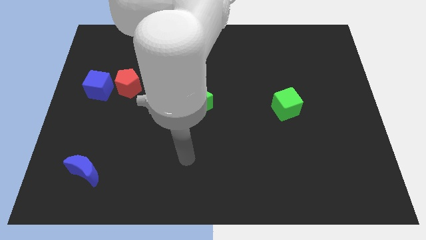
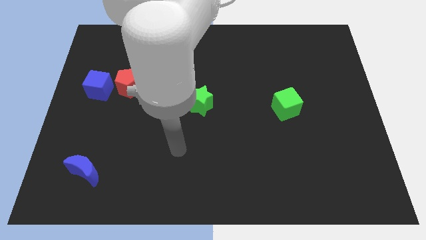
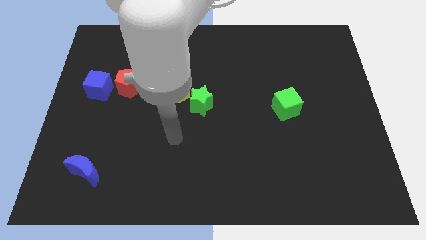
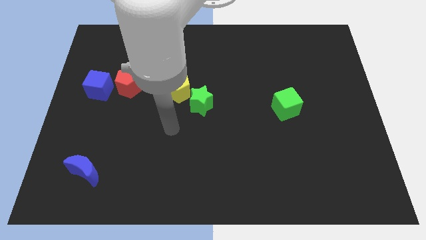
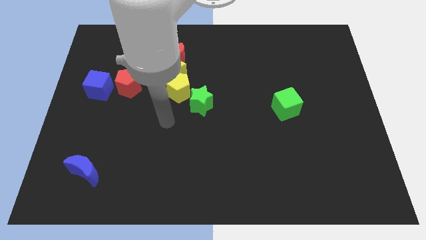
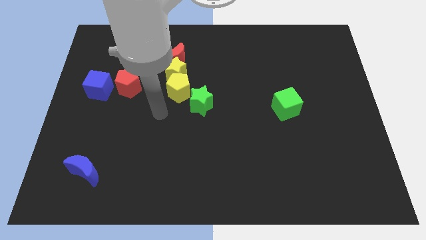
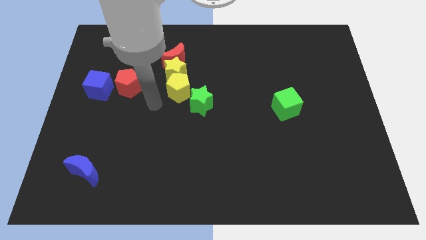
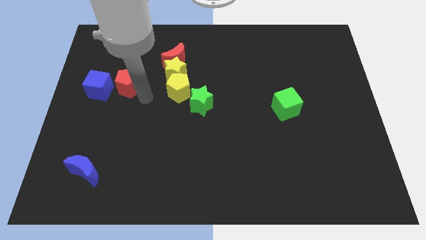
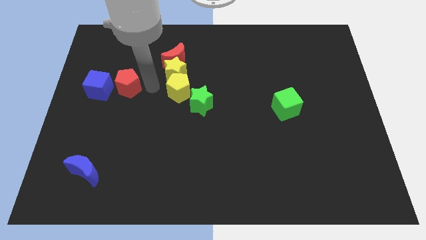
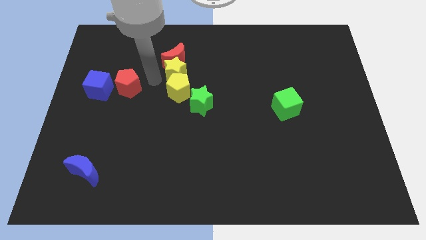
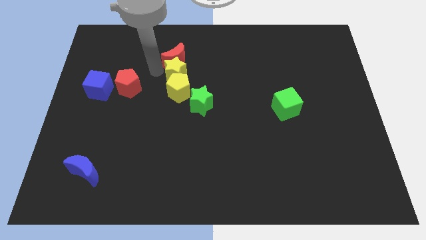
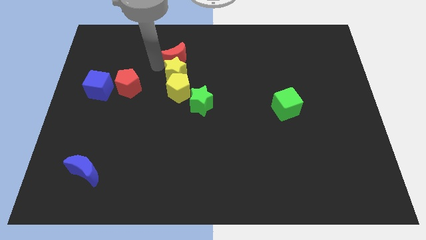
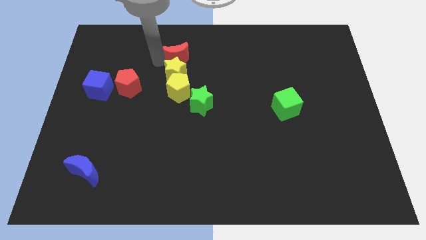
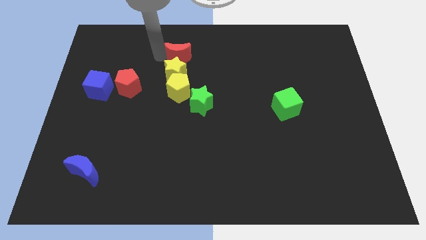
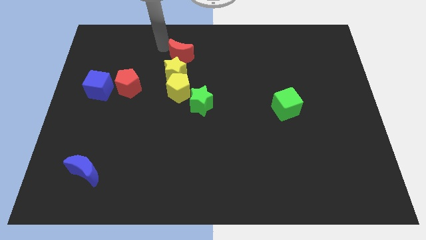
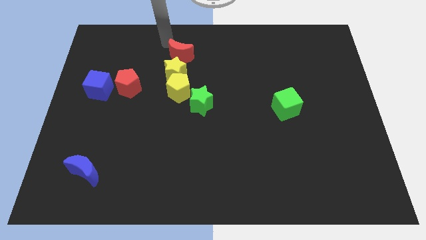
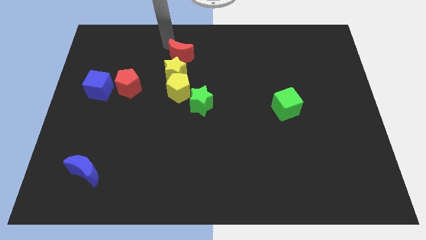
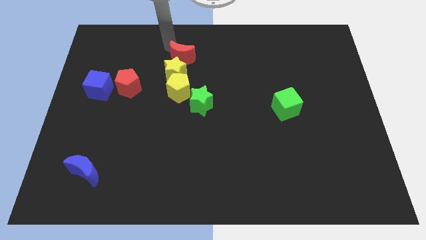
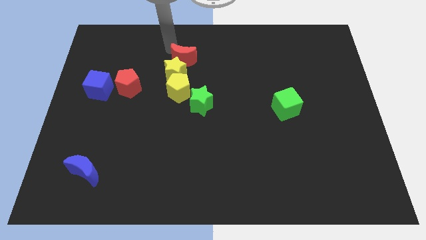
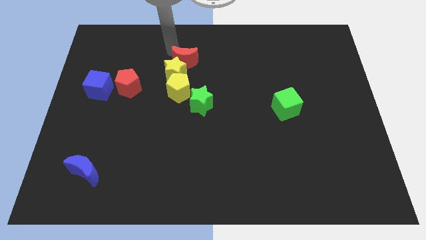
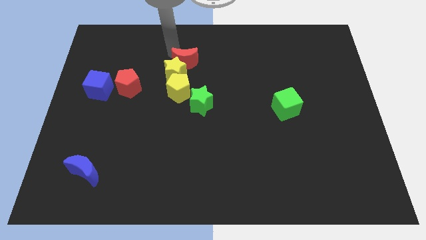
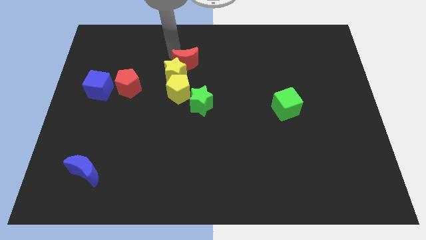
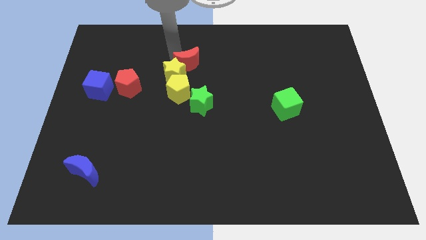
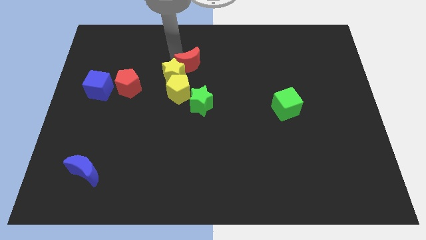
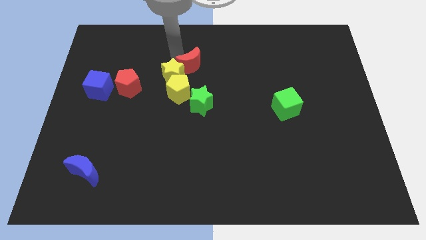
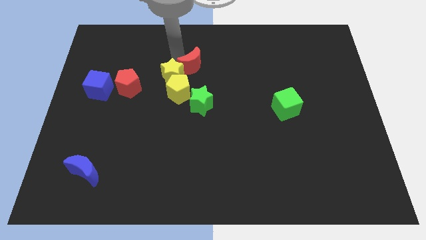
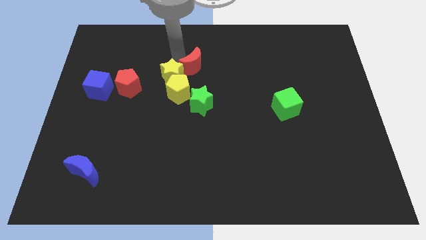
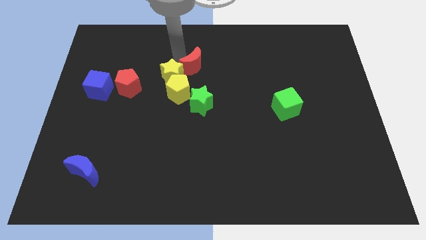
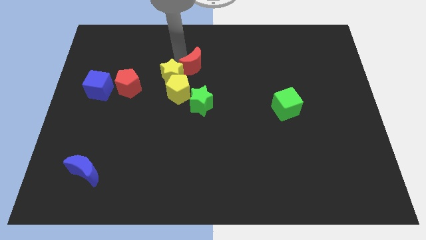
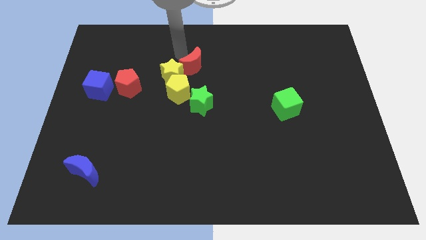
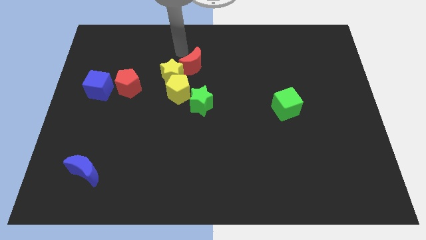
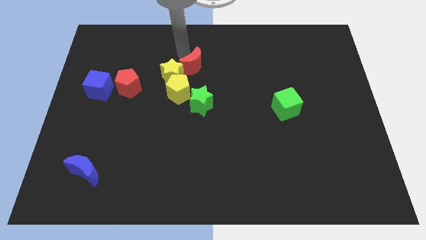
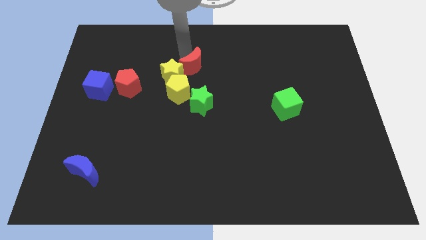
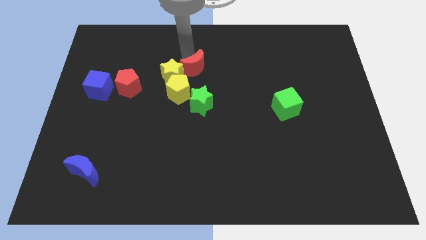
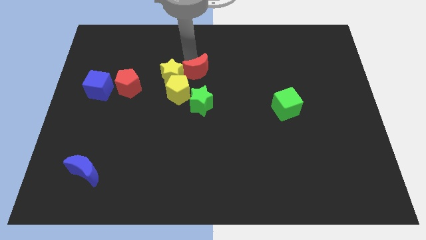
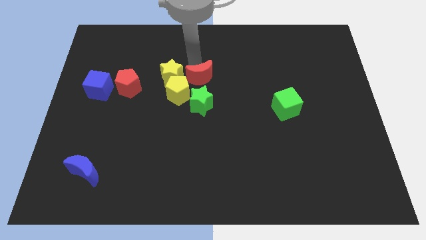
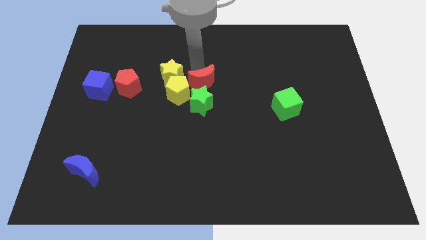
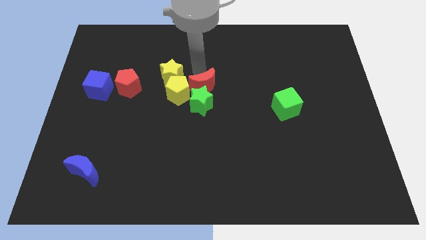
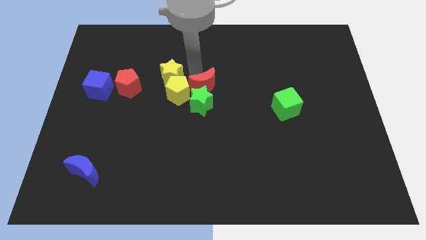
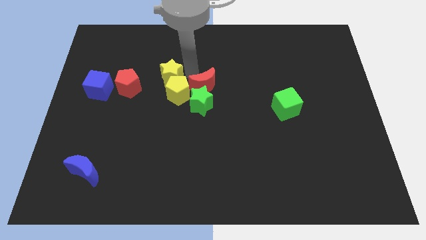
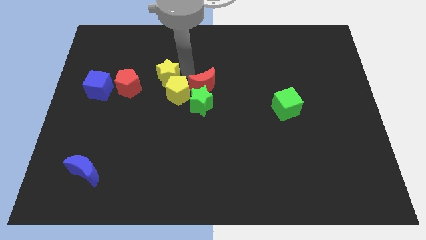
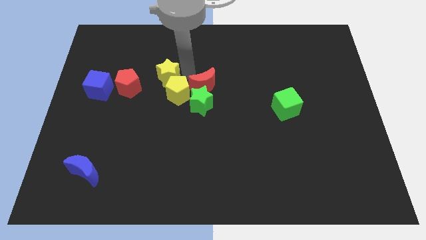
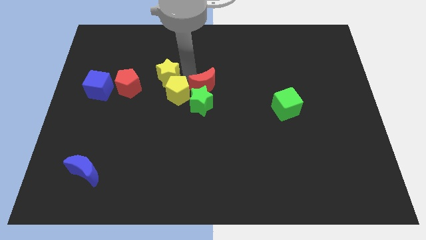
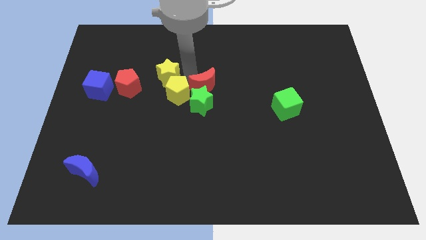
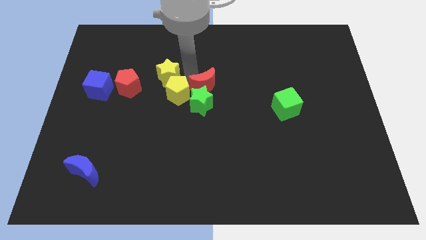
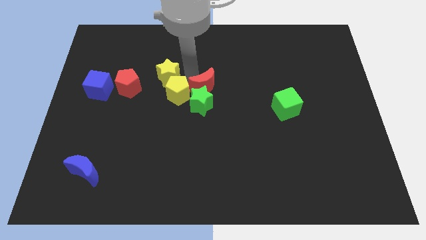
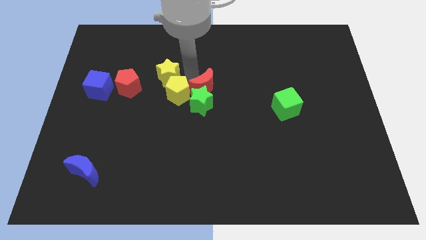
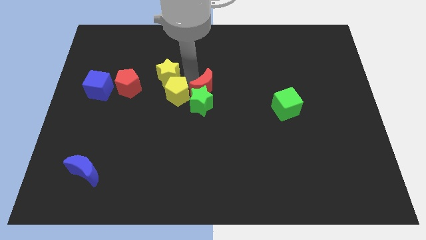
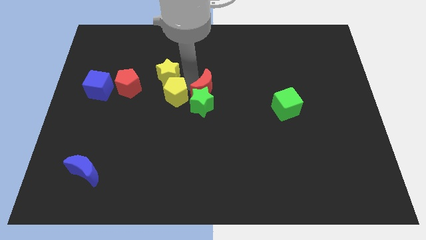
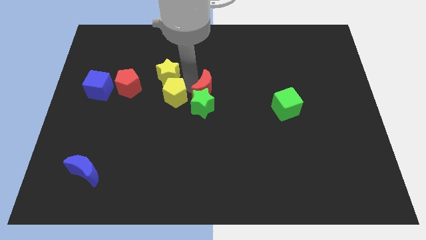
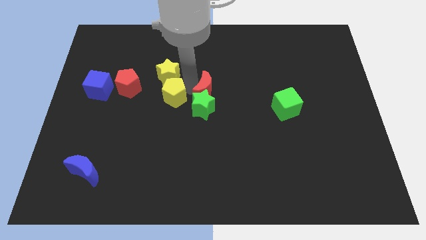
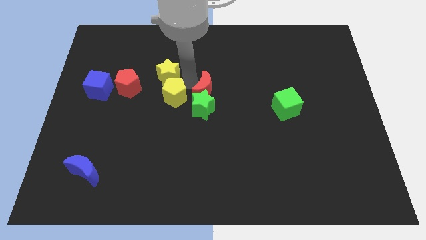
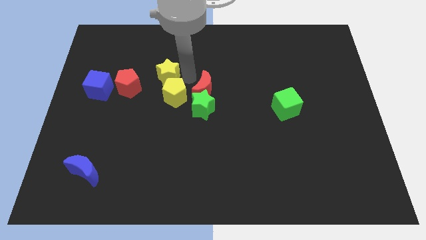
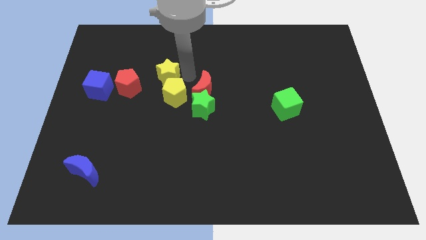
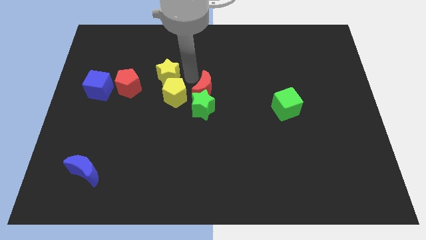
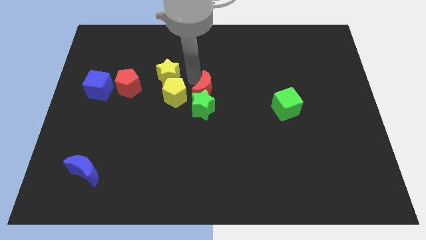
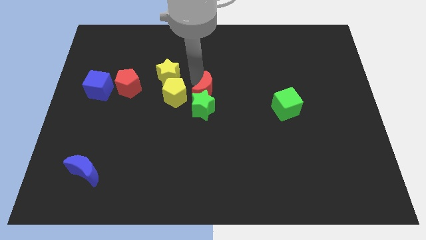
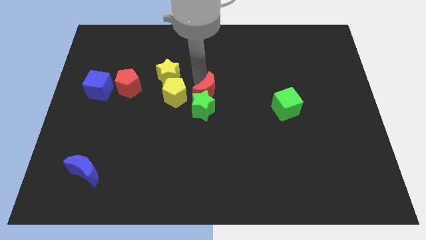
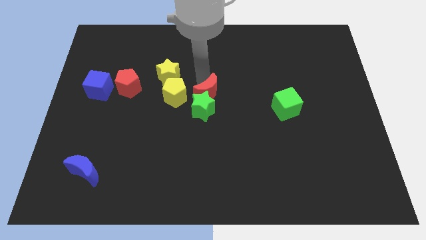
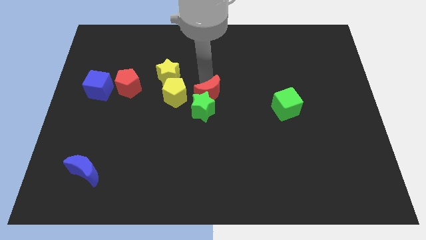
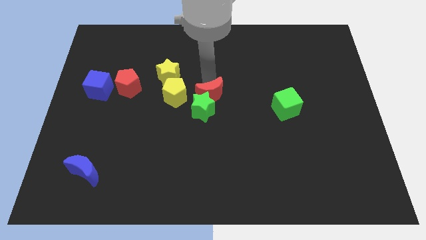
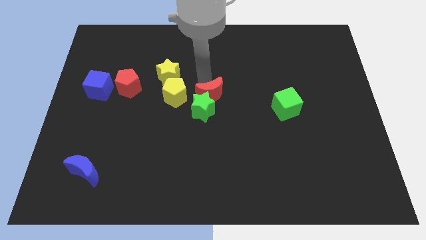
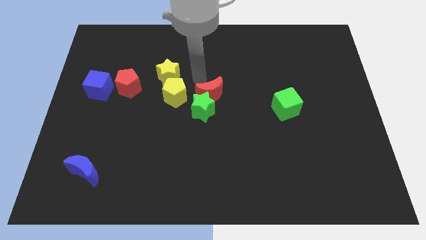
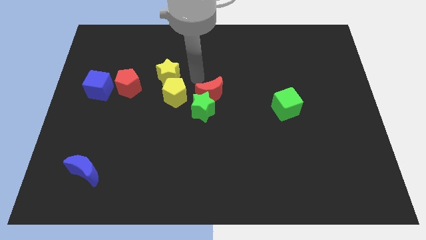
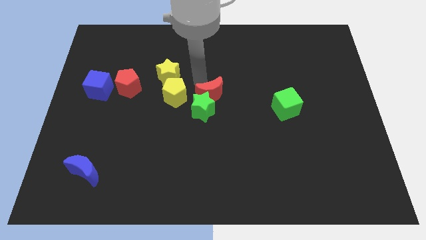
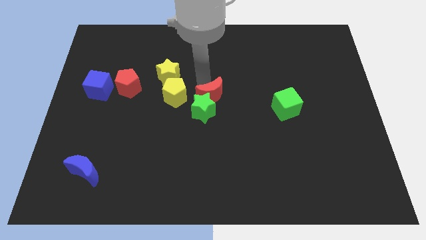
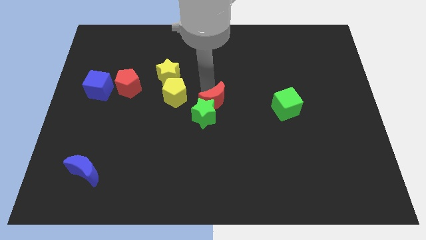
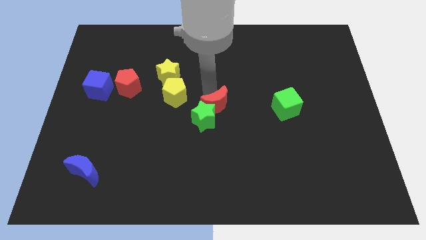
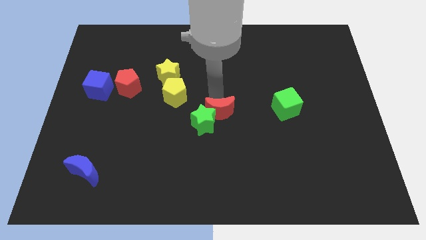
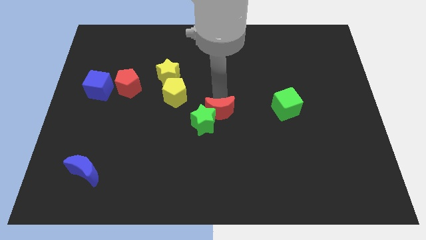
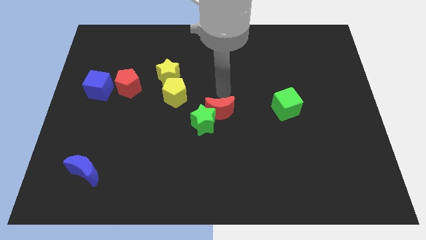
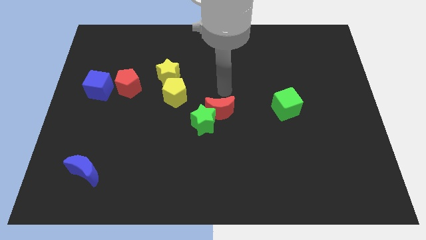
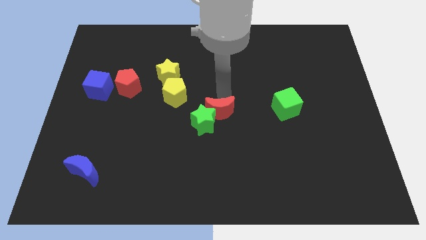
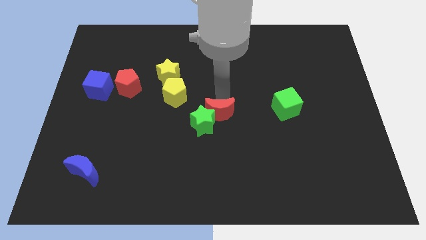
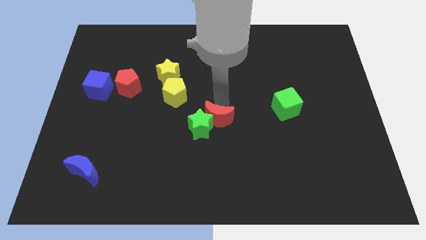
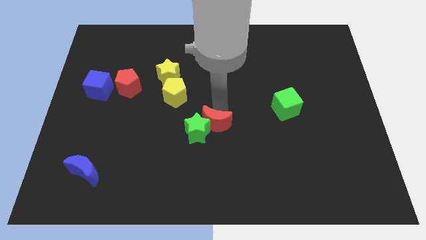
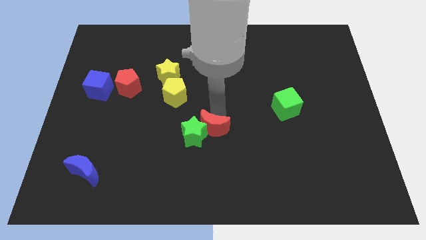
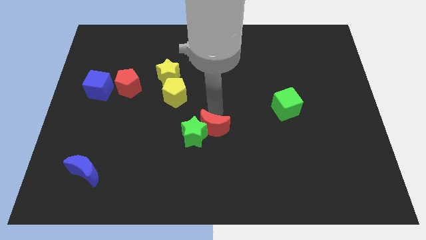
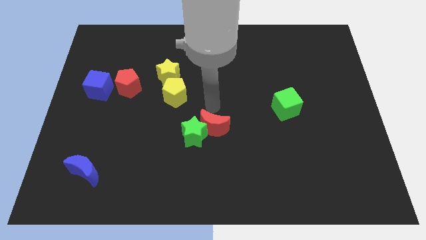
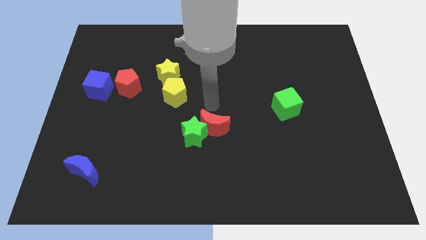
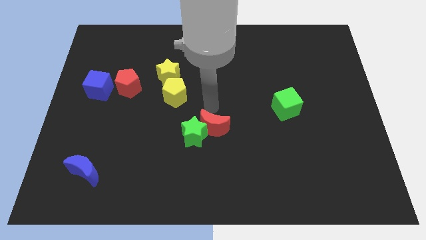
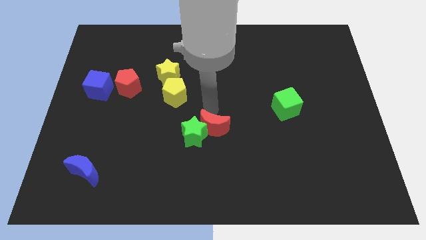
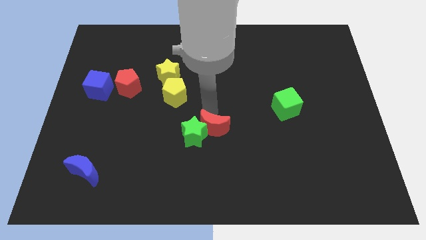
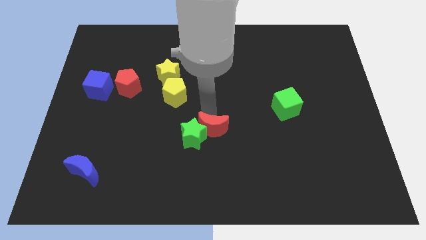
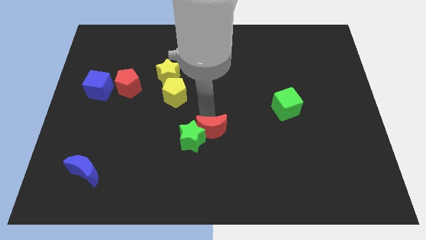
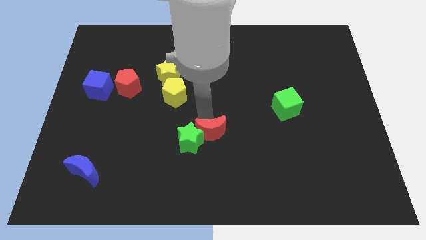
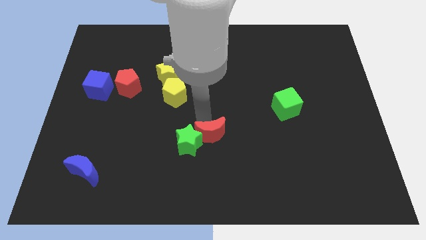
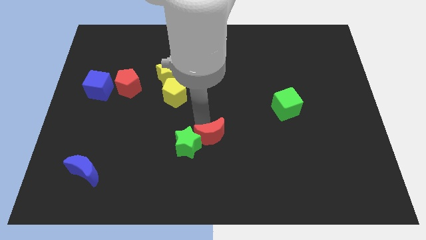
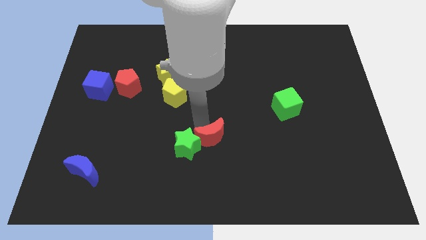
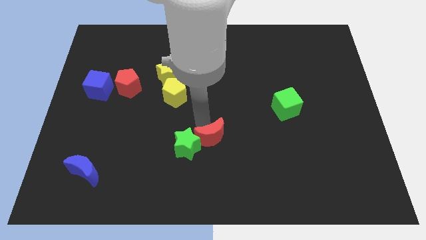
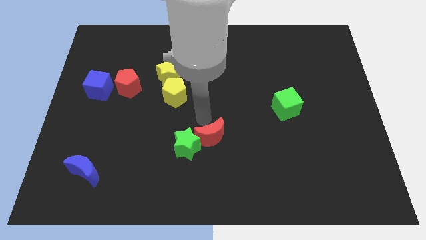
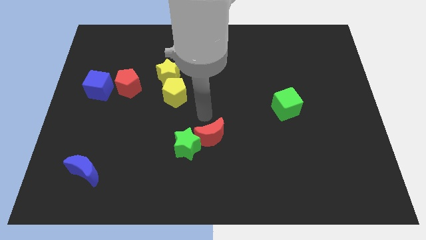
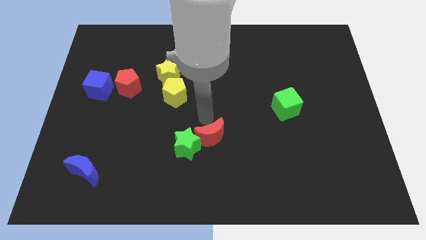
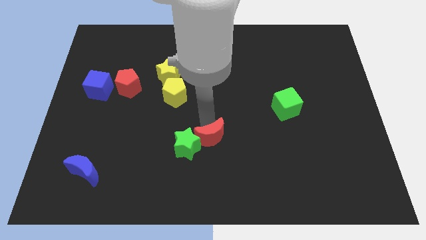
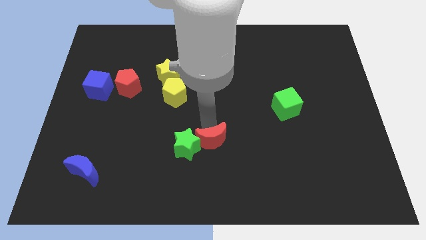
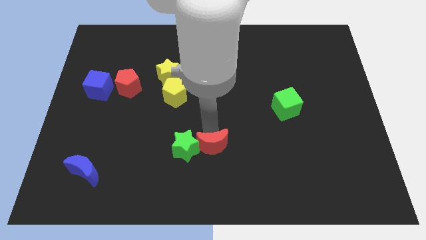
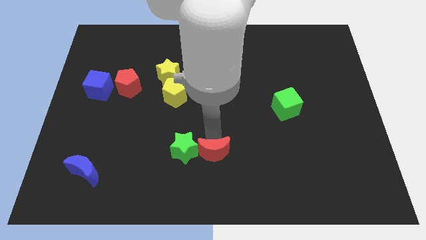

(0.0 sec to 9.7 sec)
slide the red moon to the bottom side
